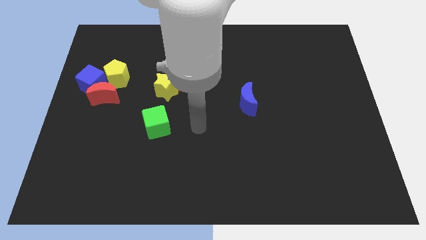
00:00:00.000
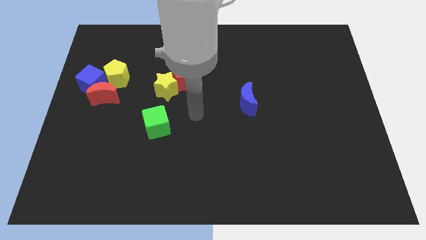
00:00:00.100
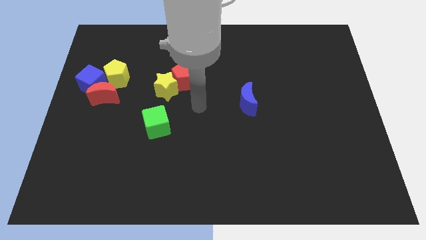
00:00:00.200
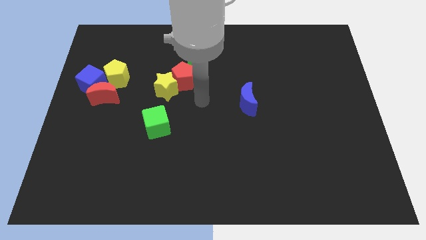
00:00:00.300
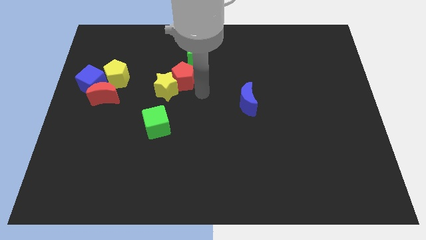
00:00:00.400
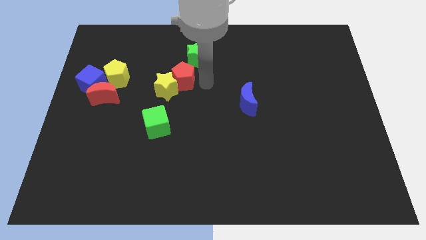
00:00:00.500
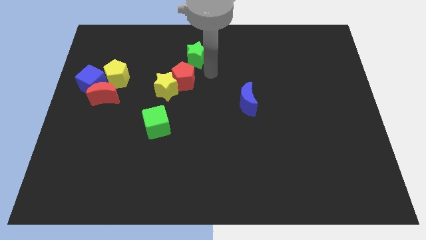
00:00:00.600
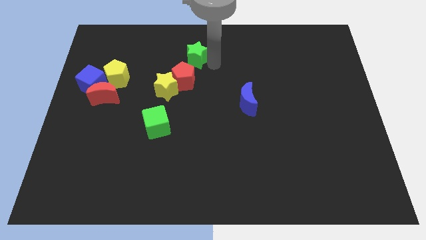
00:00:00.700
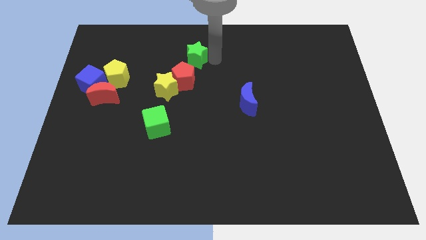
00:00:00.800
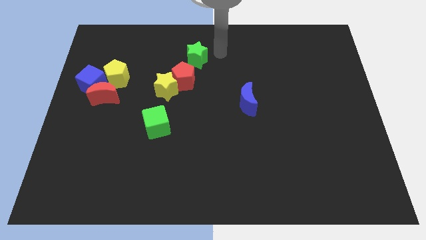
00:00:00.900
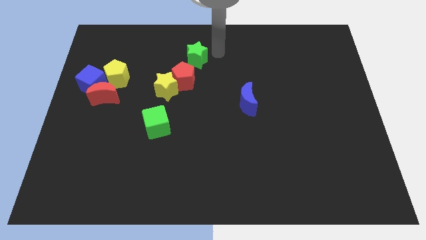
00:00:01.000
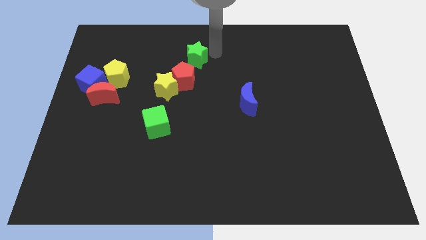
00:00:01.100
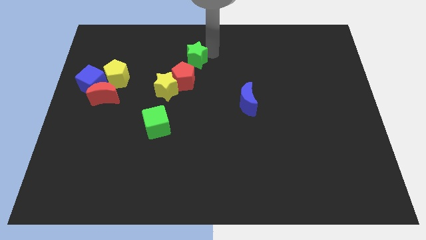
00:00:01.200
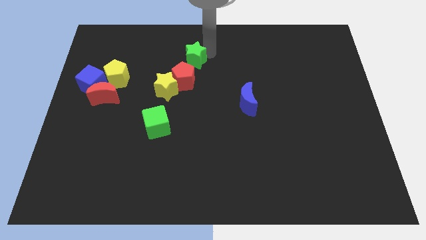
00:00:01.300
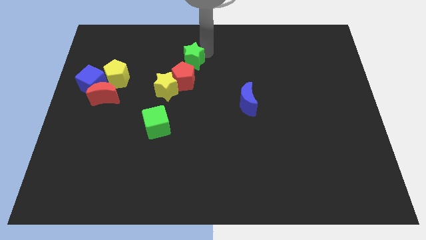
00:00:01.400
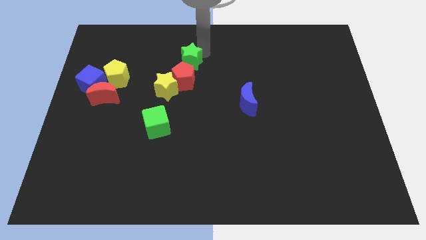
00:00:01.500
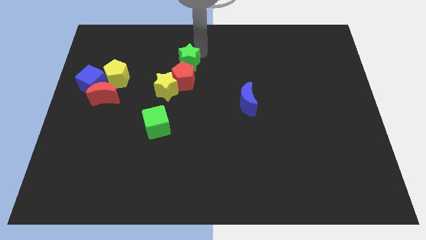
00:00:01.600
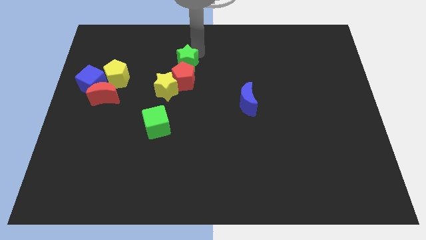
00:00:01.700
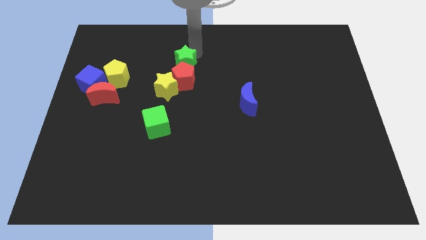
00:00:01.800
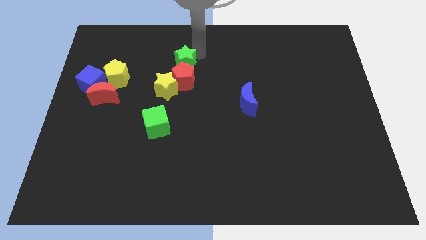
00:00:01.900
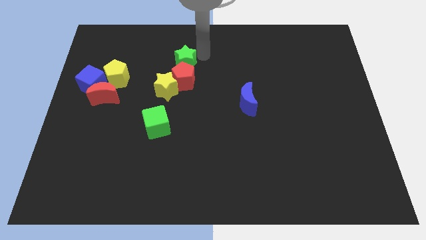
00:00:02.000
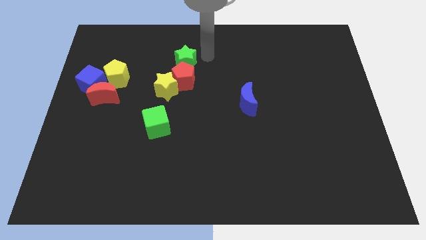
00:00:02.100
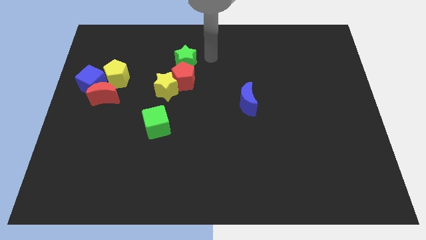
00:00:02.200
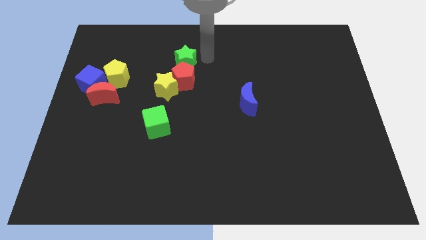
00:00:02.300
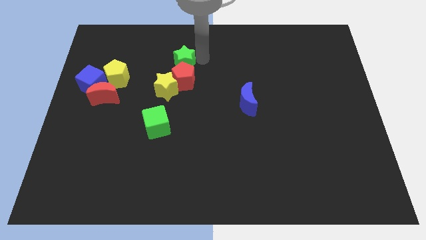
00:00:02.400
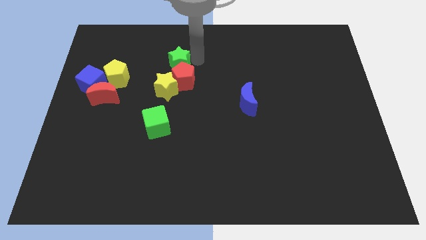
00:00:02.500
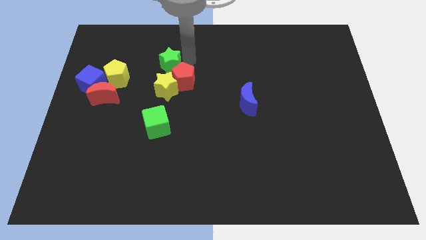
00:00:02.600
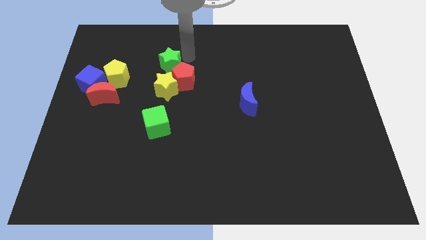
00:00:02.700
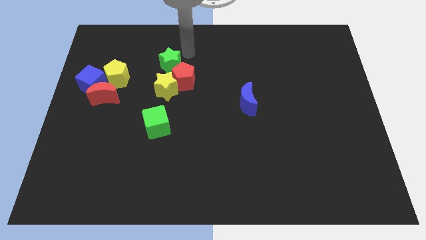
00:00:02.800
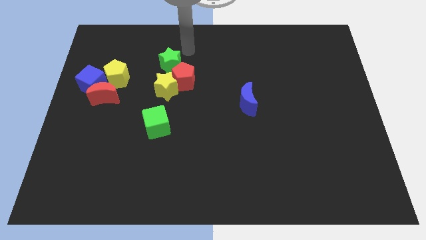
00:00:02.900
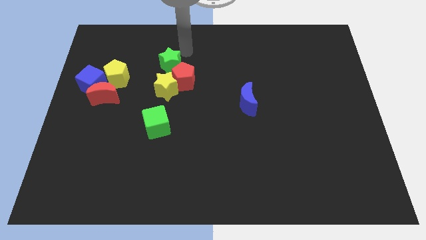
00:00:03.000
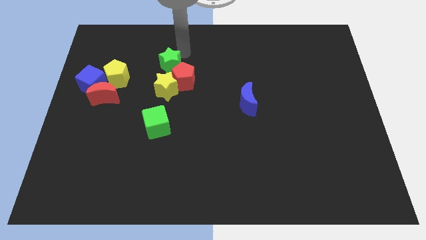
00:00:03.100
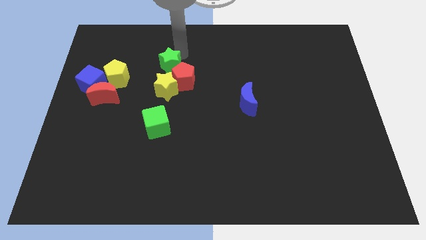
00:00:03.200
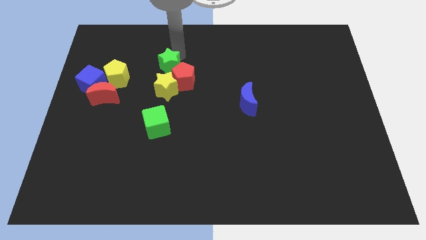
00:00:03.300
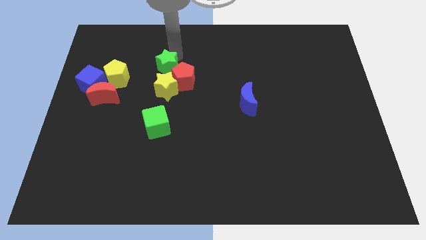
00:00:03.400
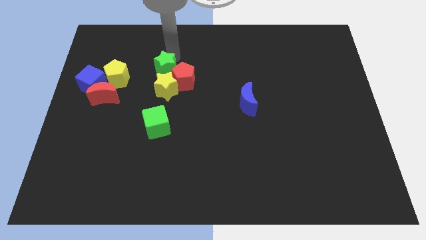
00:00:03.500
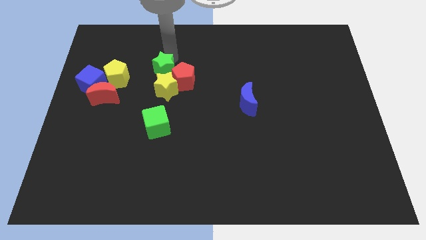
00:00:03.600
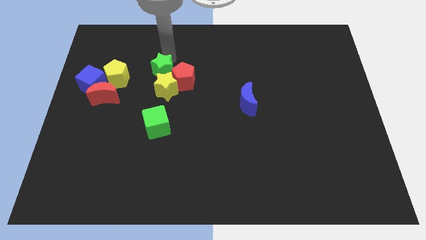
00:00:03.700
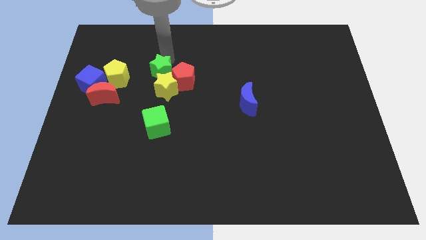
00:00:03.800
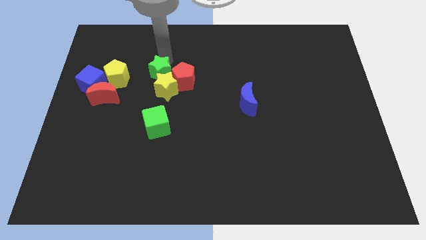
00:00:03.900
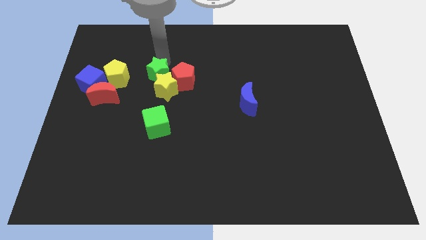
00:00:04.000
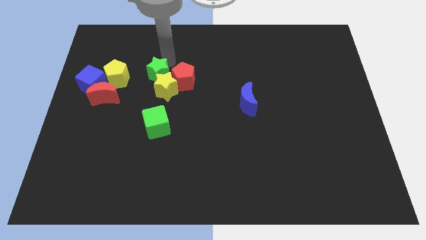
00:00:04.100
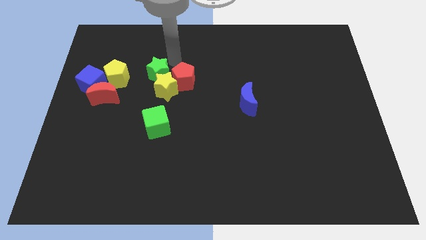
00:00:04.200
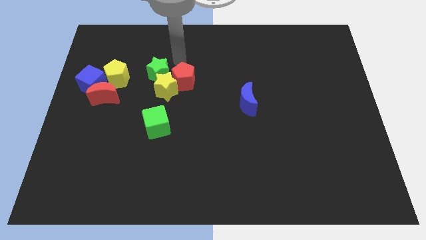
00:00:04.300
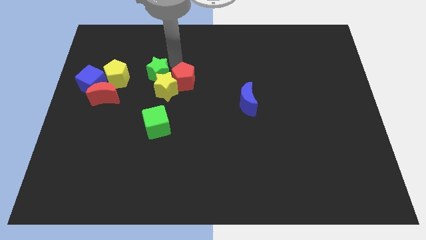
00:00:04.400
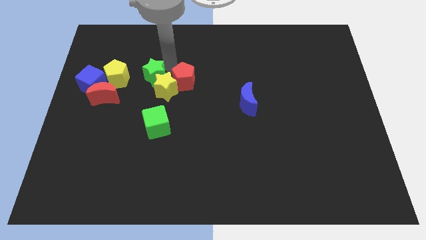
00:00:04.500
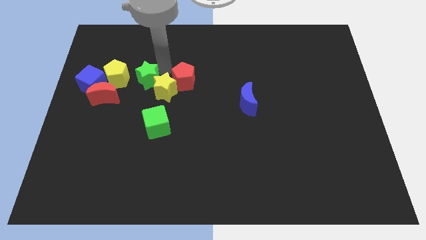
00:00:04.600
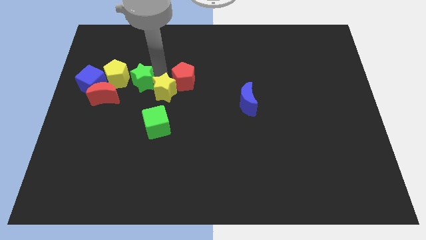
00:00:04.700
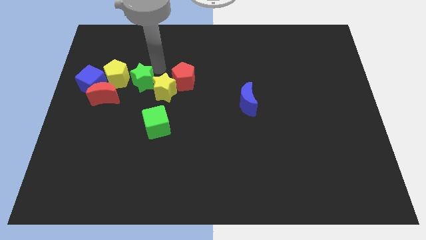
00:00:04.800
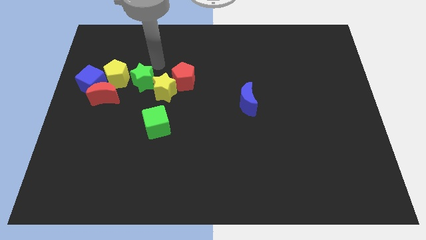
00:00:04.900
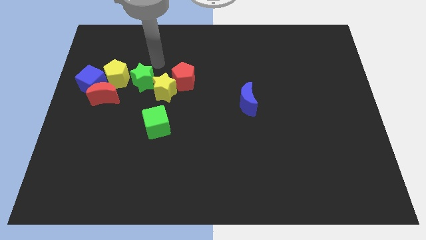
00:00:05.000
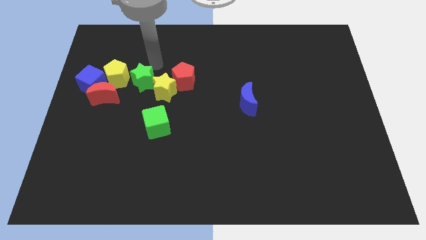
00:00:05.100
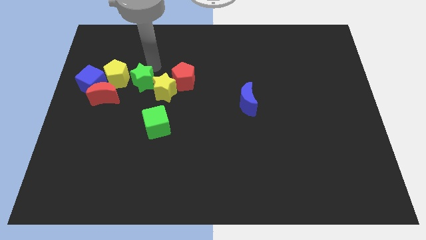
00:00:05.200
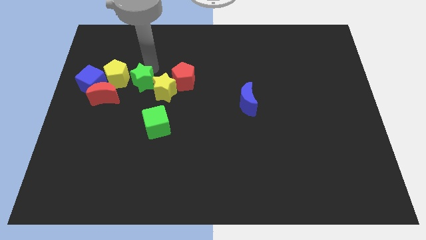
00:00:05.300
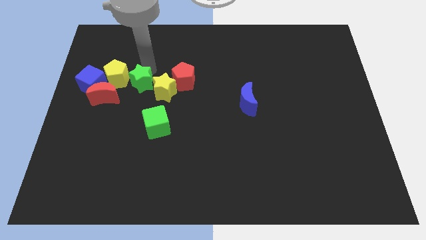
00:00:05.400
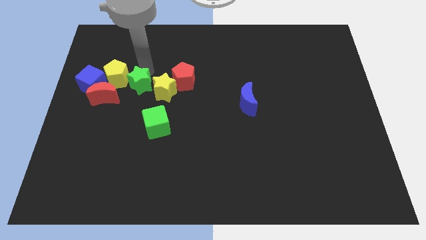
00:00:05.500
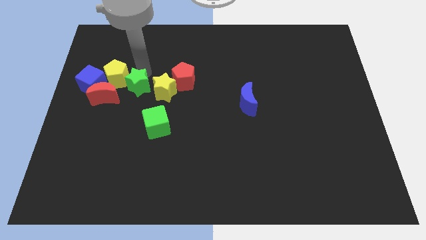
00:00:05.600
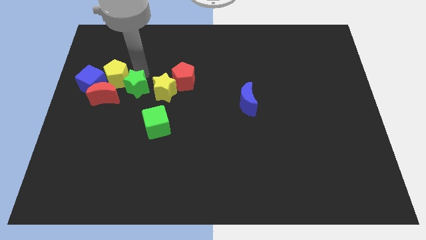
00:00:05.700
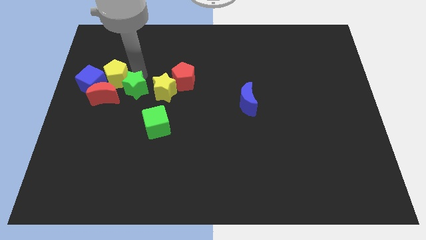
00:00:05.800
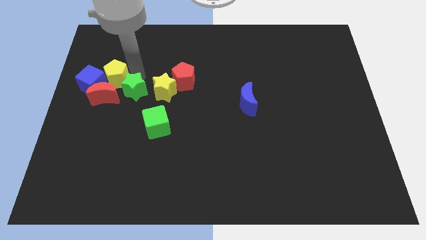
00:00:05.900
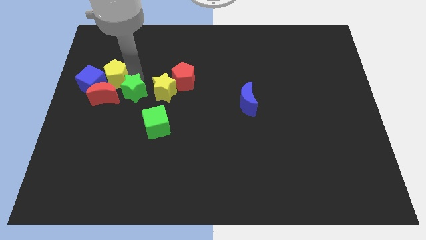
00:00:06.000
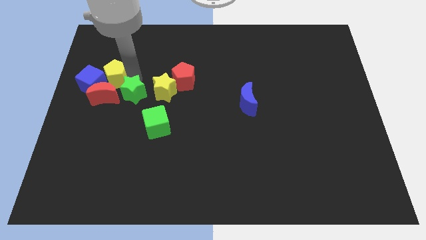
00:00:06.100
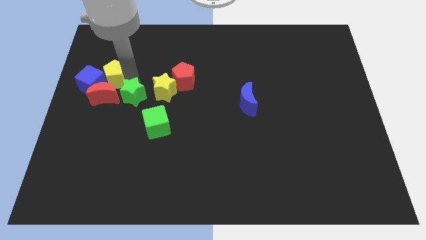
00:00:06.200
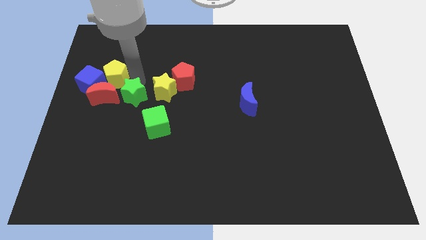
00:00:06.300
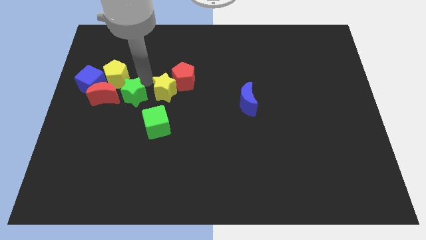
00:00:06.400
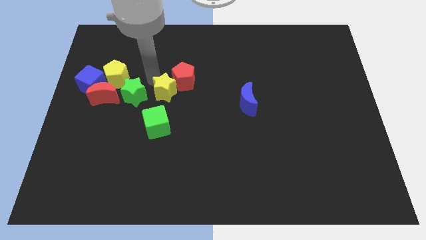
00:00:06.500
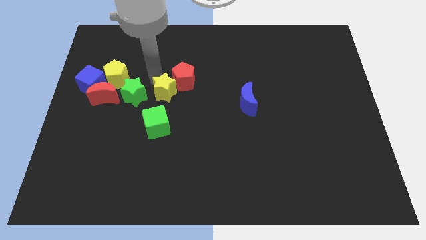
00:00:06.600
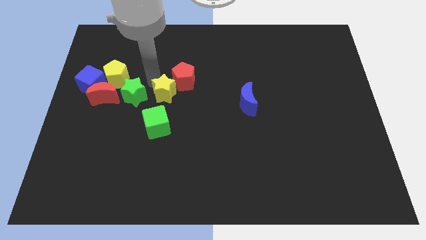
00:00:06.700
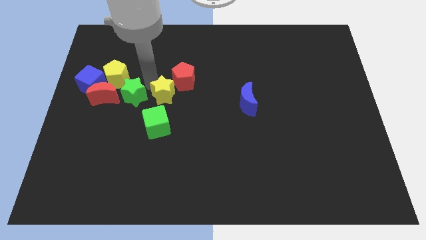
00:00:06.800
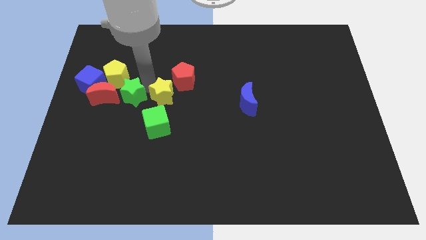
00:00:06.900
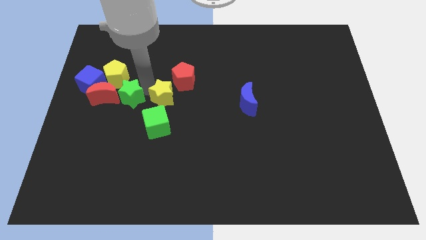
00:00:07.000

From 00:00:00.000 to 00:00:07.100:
push the green star downwards and left diagonally

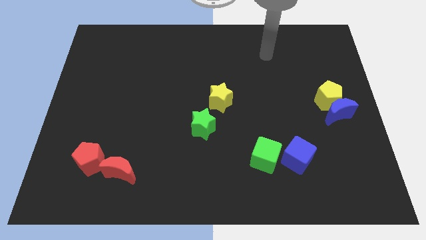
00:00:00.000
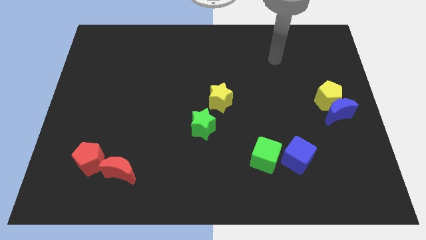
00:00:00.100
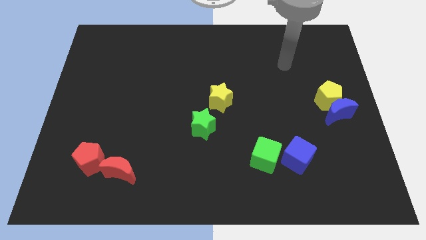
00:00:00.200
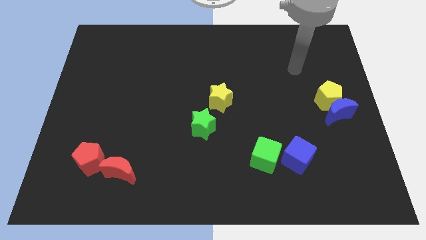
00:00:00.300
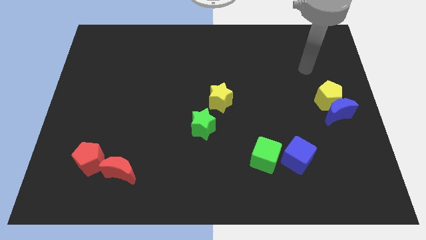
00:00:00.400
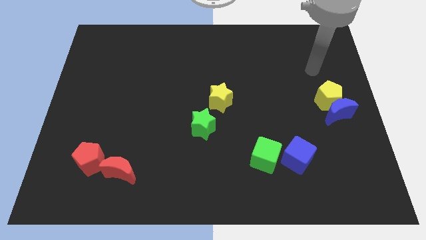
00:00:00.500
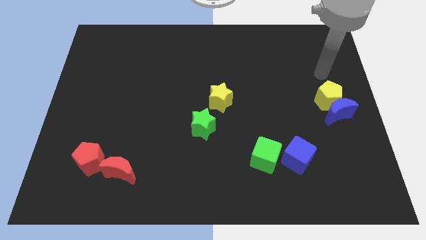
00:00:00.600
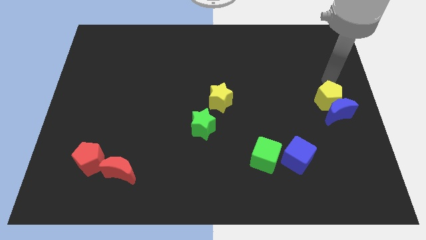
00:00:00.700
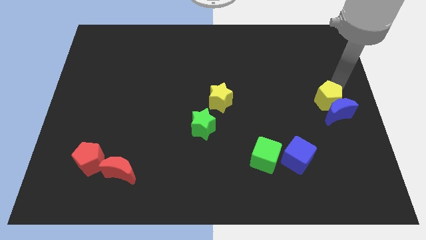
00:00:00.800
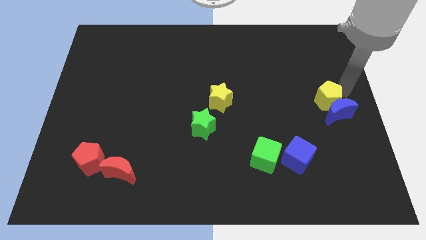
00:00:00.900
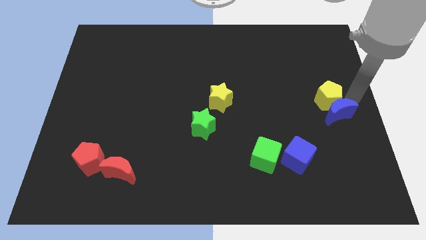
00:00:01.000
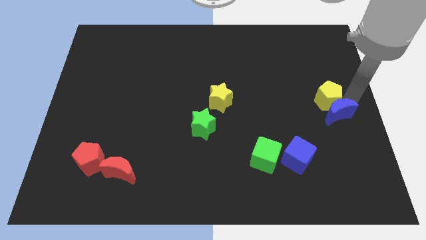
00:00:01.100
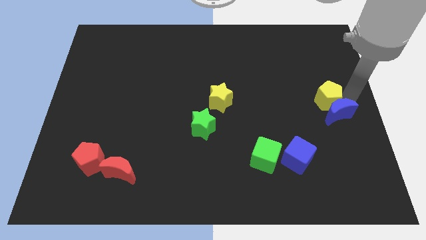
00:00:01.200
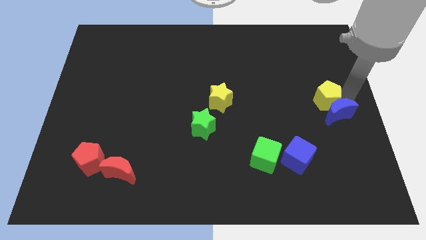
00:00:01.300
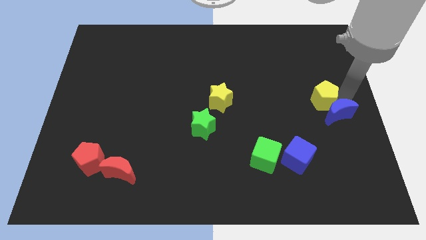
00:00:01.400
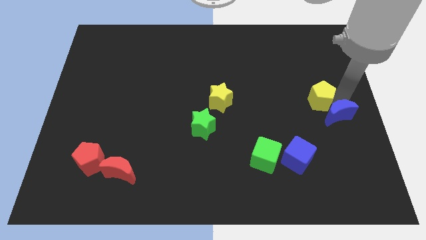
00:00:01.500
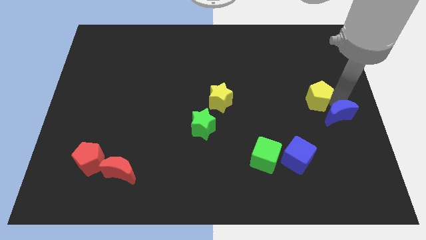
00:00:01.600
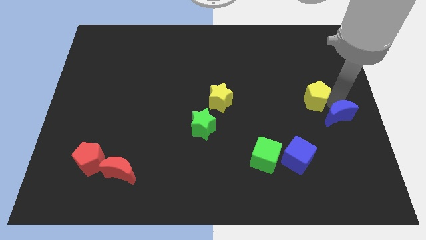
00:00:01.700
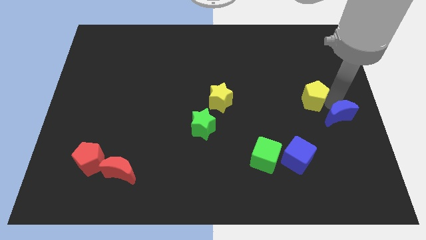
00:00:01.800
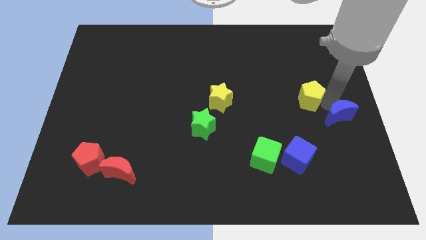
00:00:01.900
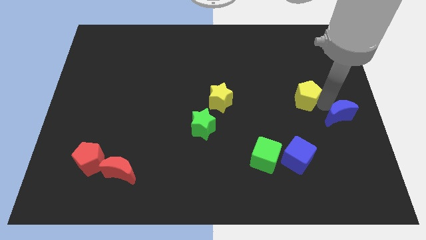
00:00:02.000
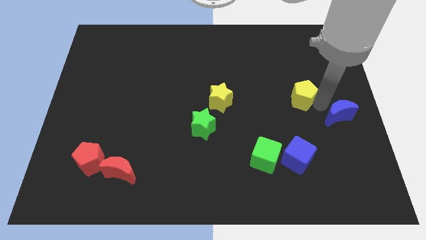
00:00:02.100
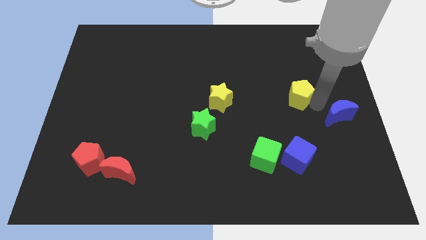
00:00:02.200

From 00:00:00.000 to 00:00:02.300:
slightly move the yellow pentagon left
